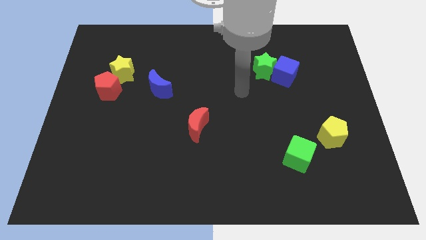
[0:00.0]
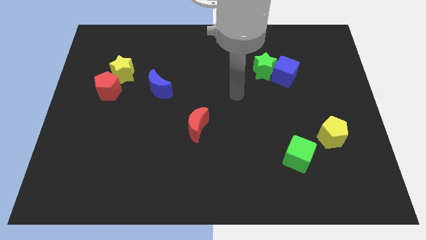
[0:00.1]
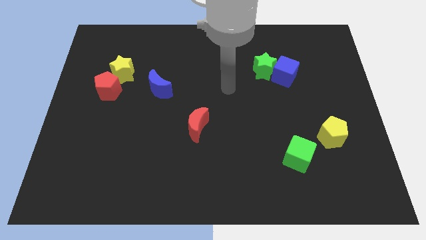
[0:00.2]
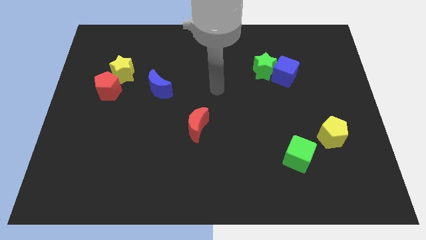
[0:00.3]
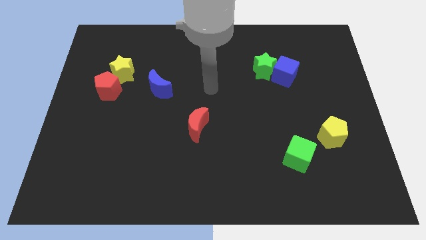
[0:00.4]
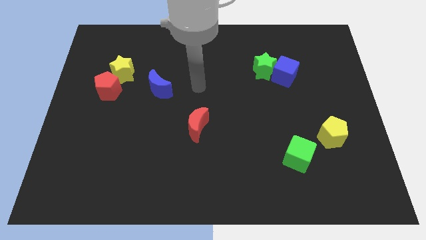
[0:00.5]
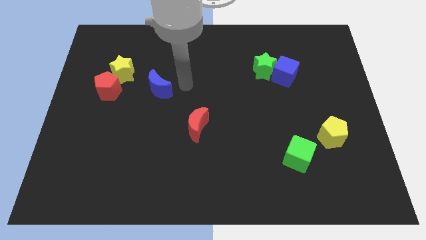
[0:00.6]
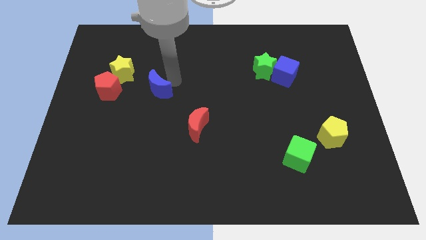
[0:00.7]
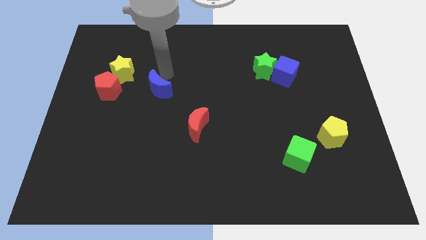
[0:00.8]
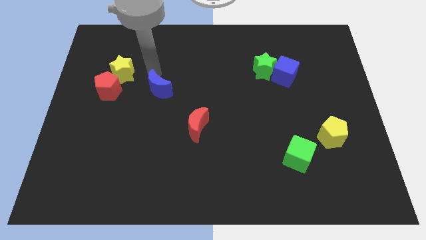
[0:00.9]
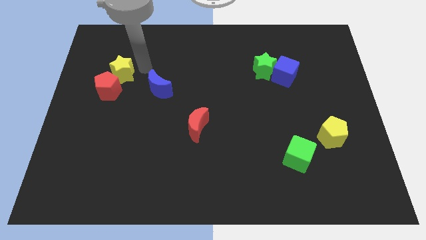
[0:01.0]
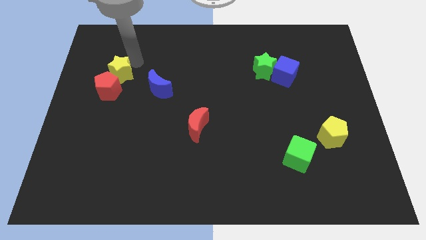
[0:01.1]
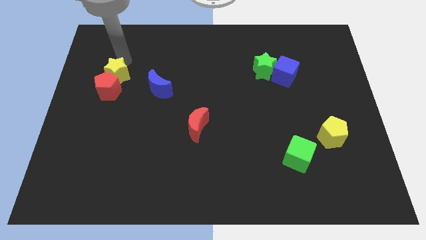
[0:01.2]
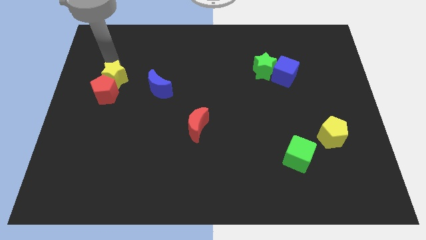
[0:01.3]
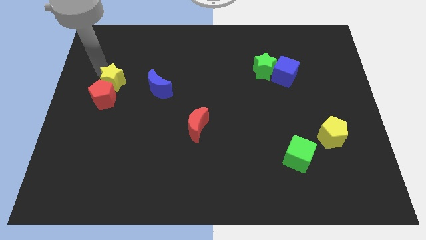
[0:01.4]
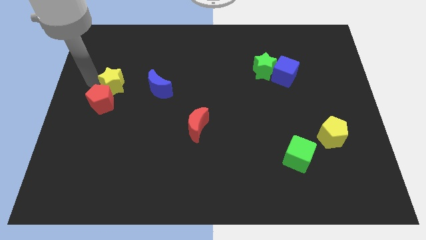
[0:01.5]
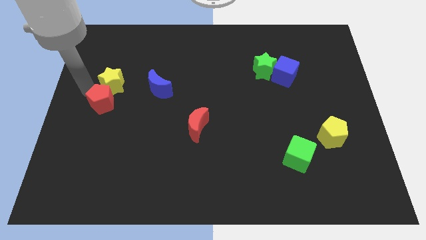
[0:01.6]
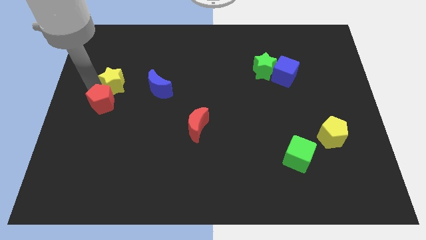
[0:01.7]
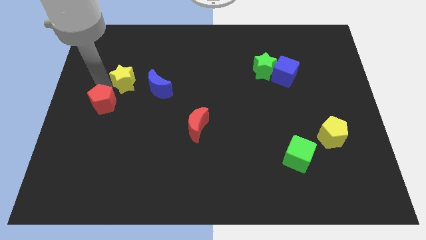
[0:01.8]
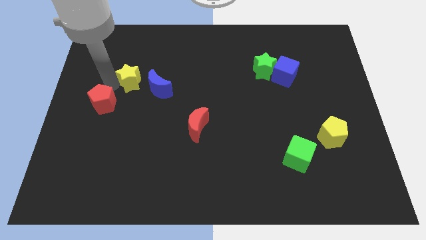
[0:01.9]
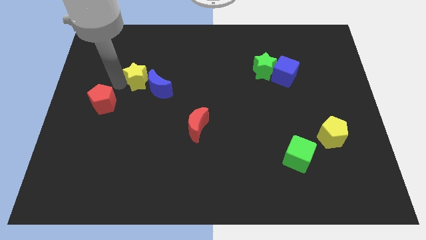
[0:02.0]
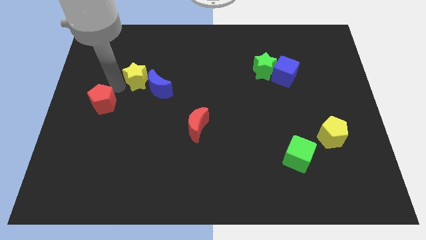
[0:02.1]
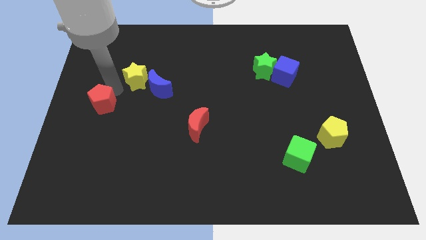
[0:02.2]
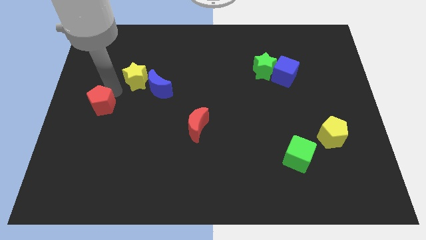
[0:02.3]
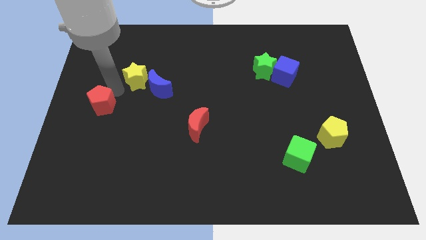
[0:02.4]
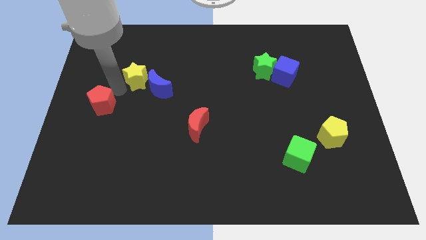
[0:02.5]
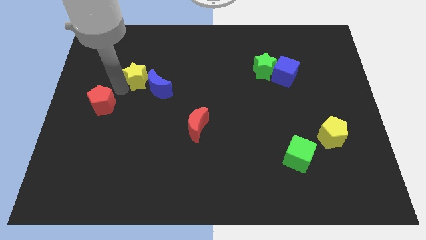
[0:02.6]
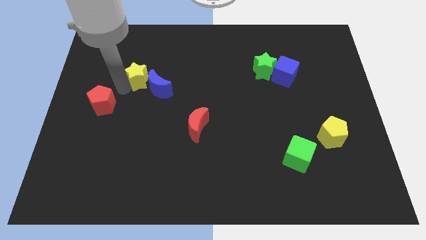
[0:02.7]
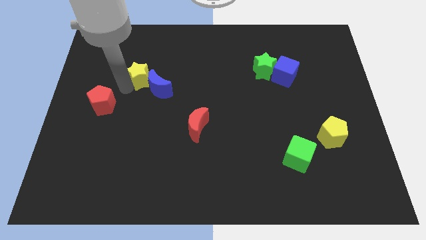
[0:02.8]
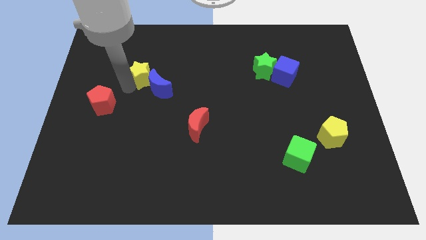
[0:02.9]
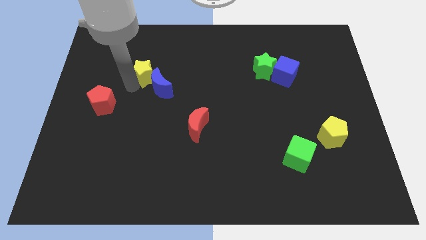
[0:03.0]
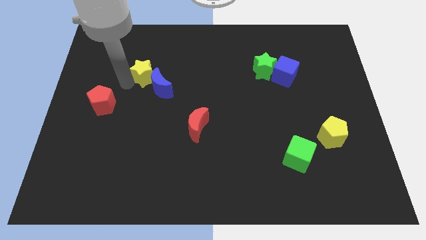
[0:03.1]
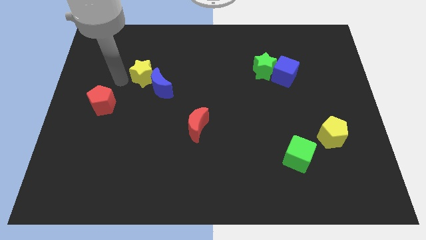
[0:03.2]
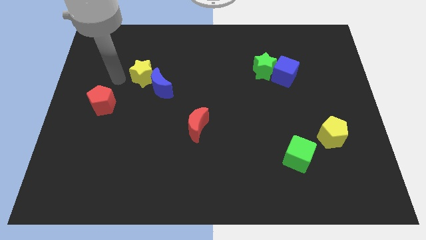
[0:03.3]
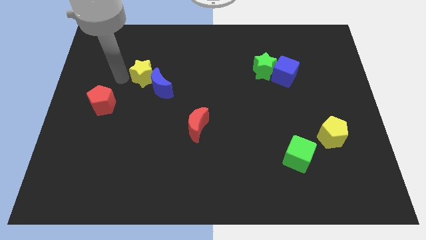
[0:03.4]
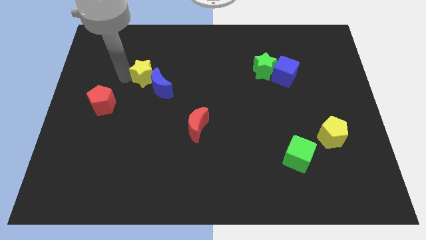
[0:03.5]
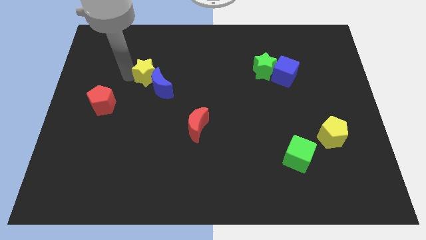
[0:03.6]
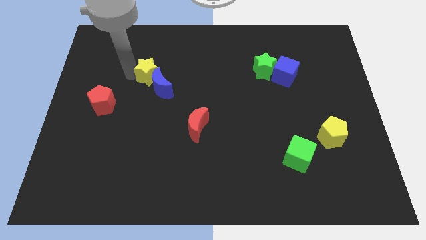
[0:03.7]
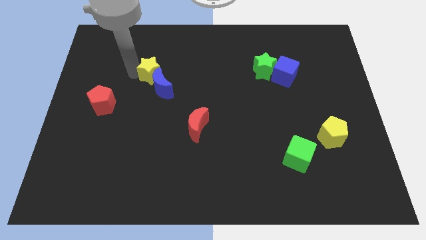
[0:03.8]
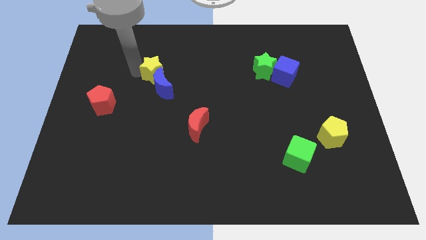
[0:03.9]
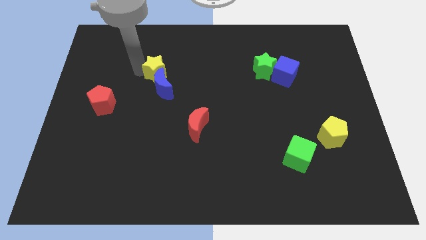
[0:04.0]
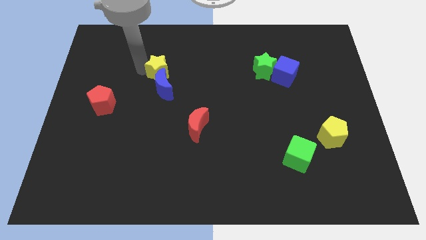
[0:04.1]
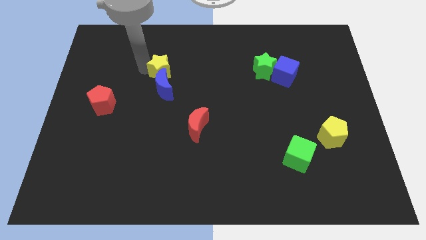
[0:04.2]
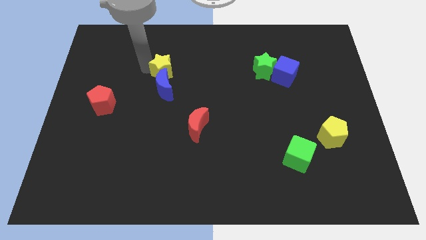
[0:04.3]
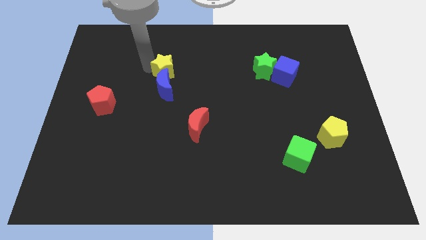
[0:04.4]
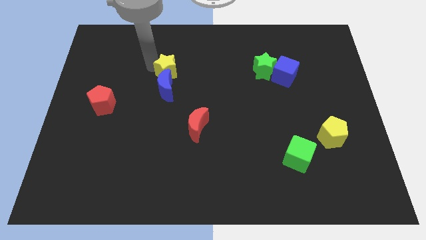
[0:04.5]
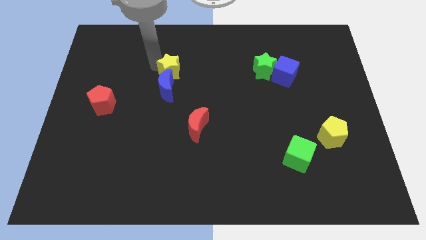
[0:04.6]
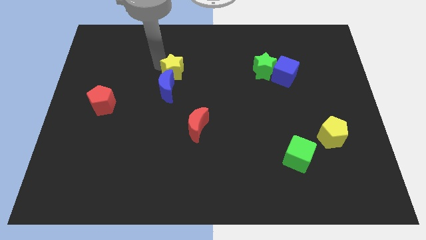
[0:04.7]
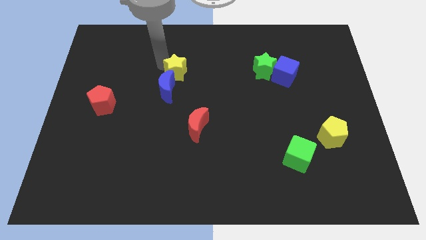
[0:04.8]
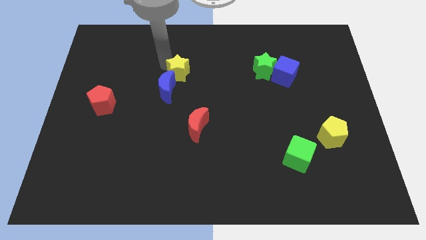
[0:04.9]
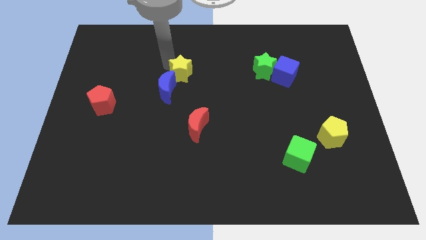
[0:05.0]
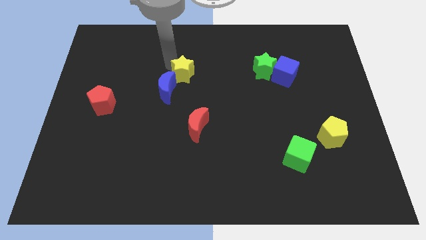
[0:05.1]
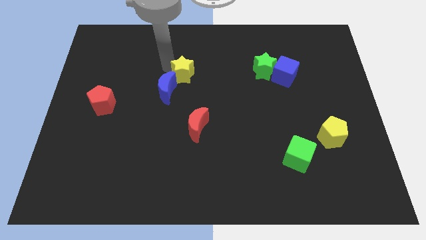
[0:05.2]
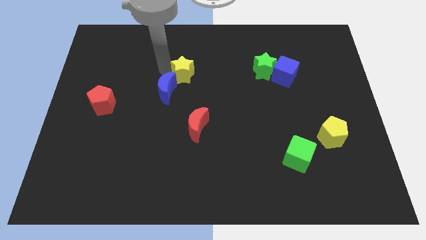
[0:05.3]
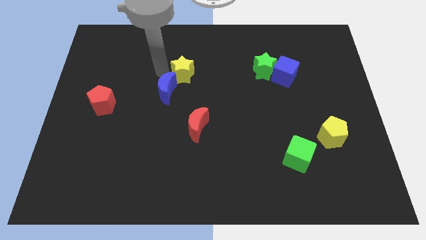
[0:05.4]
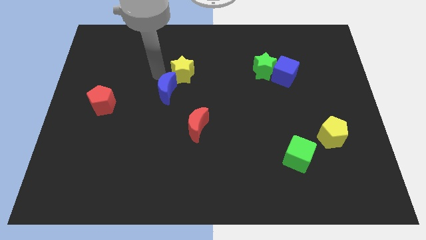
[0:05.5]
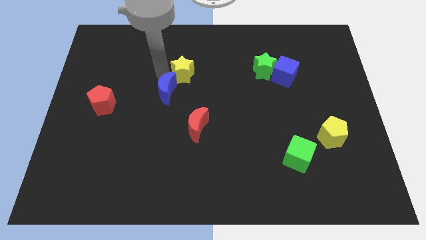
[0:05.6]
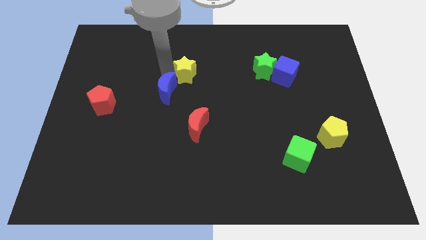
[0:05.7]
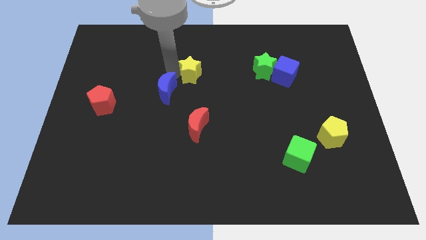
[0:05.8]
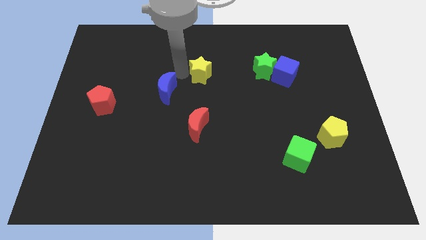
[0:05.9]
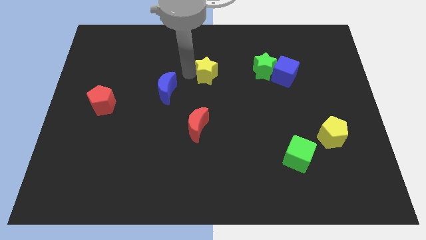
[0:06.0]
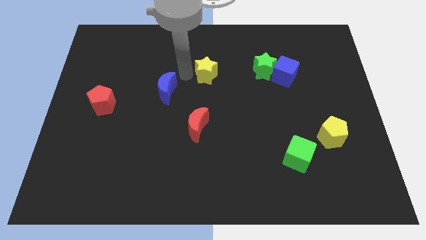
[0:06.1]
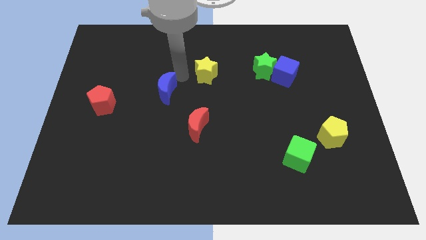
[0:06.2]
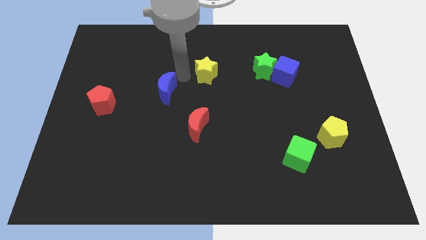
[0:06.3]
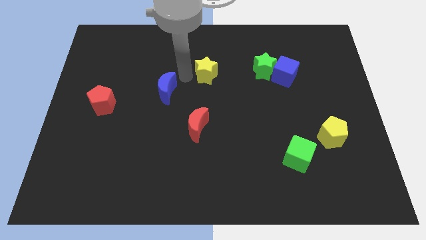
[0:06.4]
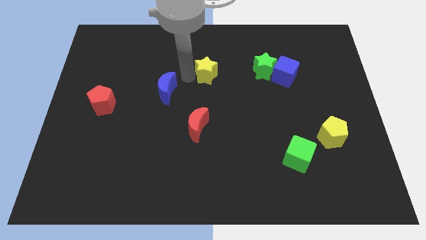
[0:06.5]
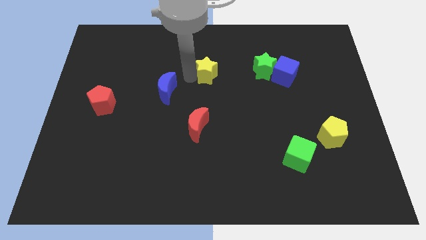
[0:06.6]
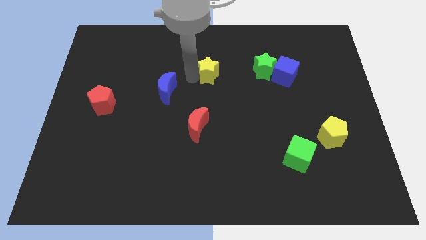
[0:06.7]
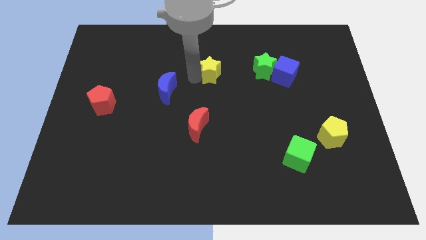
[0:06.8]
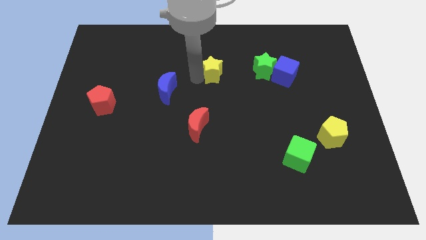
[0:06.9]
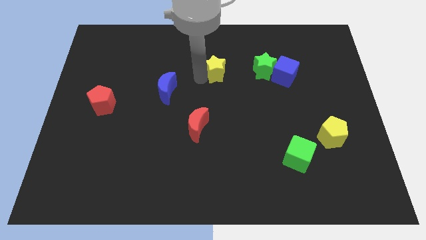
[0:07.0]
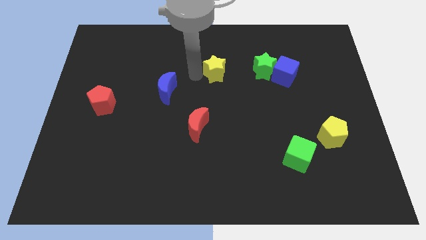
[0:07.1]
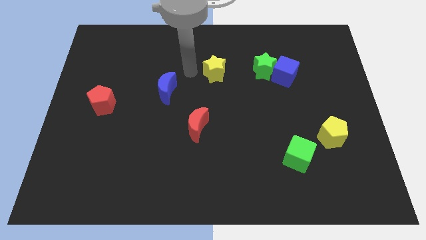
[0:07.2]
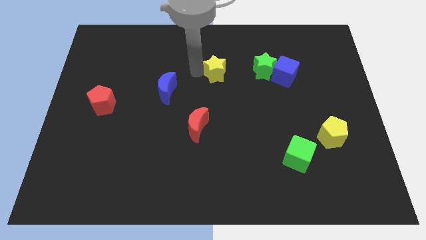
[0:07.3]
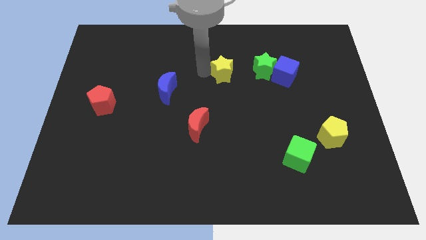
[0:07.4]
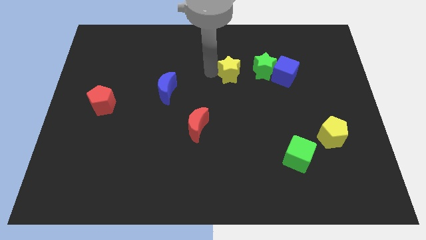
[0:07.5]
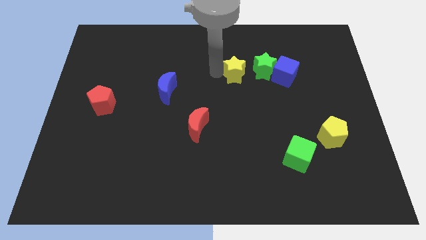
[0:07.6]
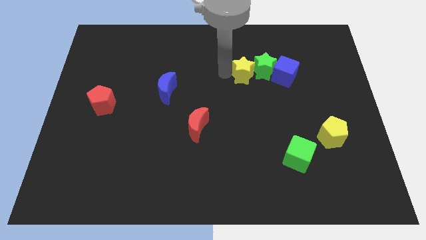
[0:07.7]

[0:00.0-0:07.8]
put the yellow star towards the green star
